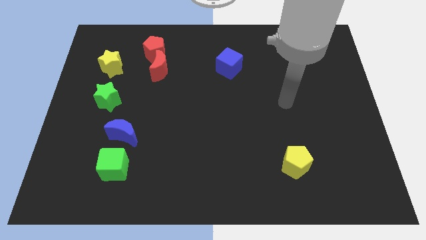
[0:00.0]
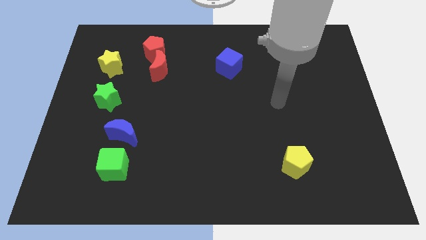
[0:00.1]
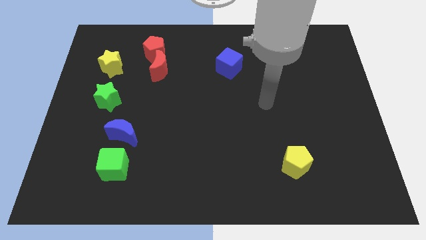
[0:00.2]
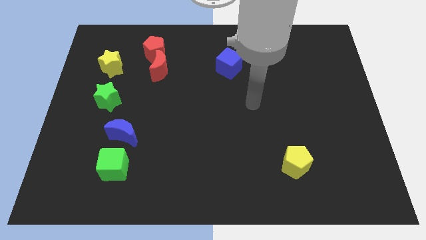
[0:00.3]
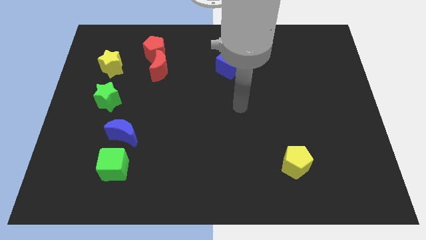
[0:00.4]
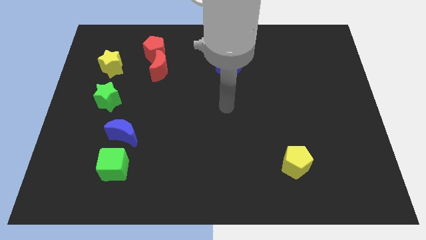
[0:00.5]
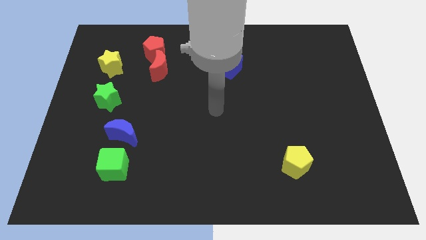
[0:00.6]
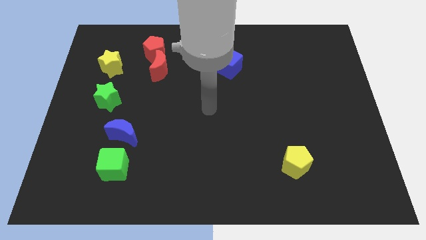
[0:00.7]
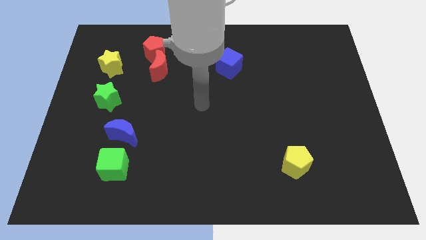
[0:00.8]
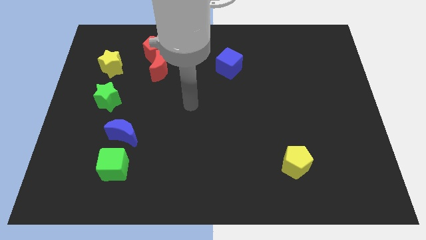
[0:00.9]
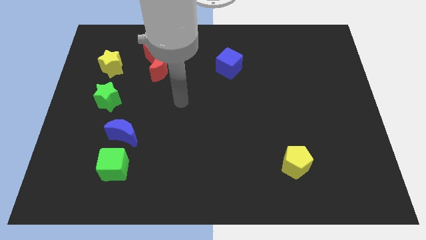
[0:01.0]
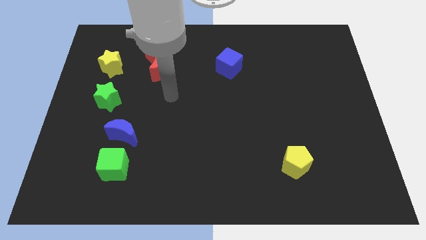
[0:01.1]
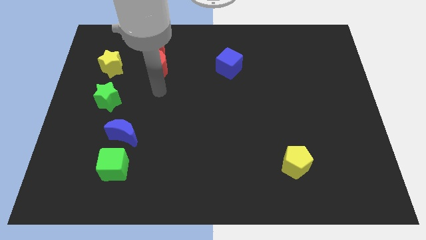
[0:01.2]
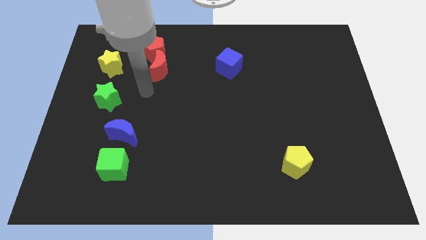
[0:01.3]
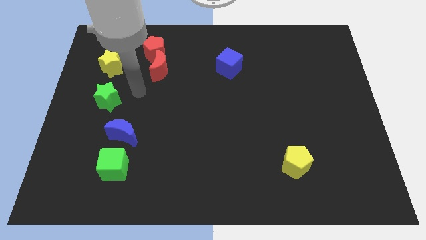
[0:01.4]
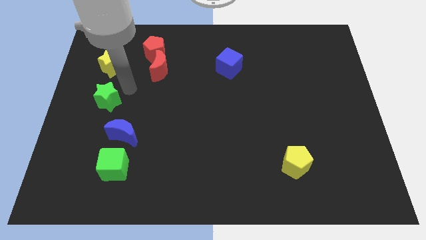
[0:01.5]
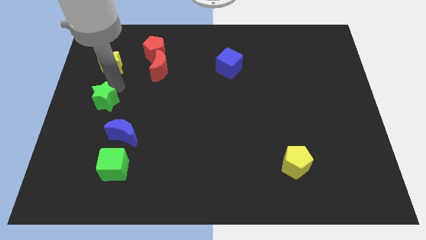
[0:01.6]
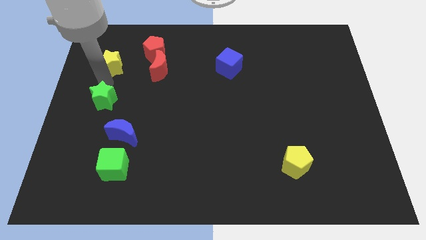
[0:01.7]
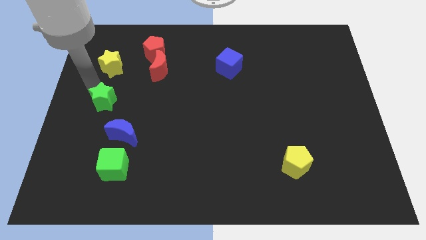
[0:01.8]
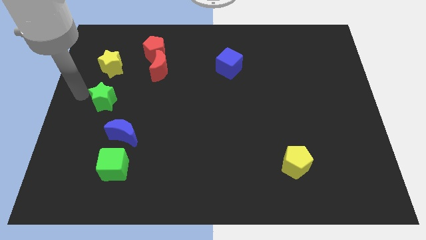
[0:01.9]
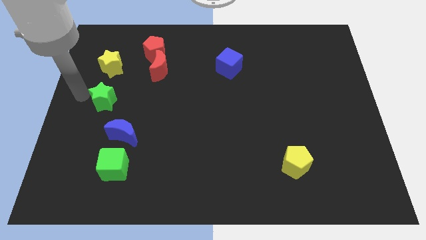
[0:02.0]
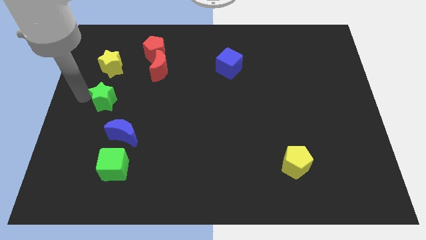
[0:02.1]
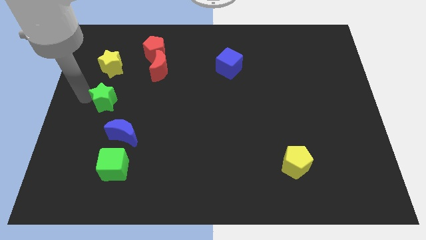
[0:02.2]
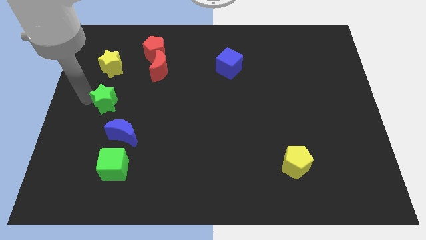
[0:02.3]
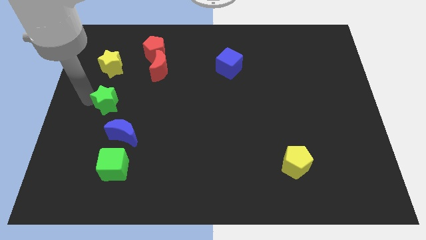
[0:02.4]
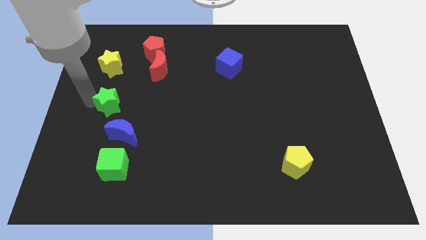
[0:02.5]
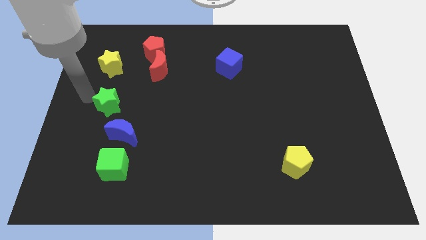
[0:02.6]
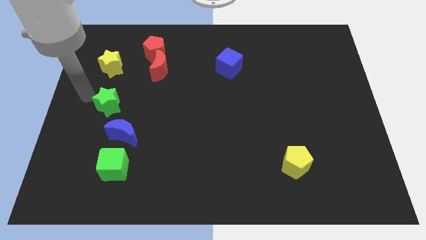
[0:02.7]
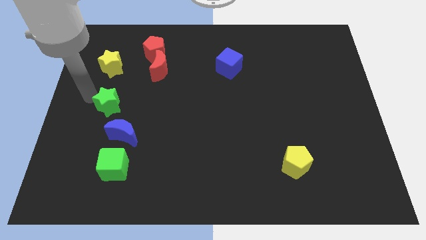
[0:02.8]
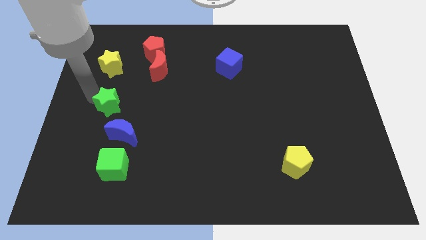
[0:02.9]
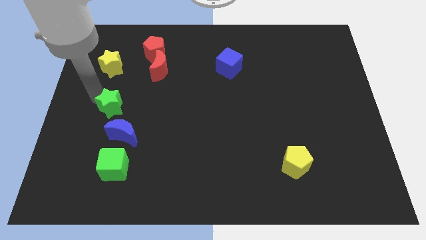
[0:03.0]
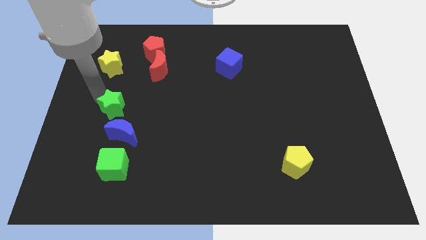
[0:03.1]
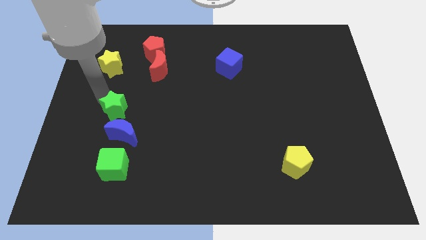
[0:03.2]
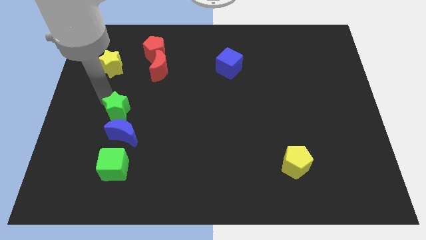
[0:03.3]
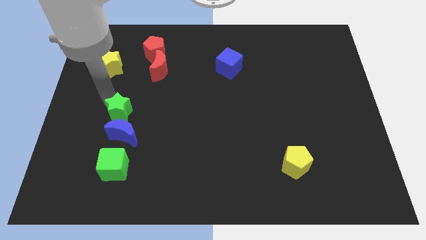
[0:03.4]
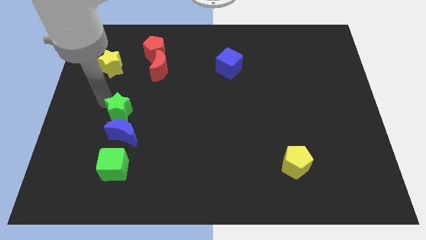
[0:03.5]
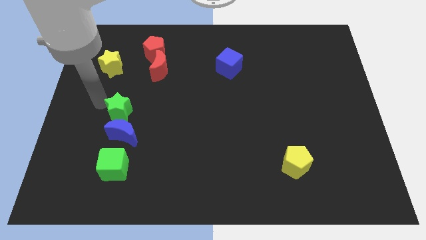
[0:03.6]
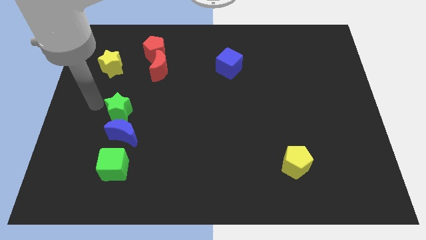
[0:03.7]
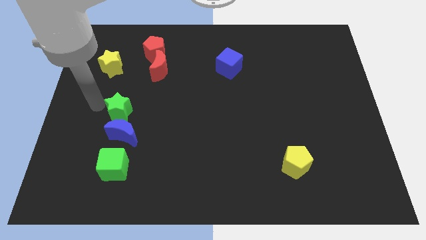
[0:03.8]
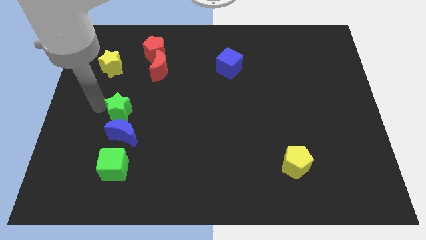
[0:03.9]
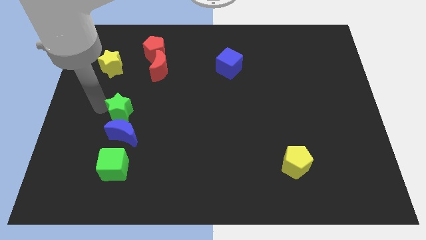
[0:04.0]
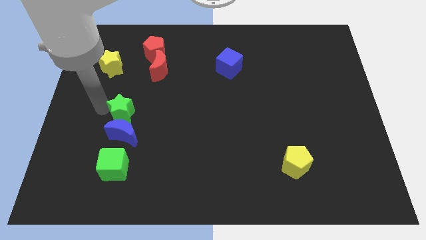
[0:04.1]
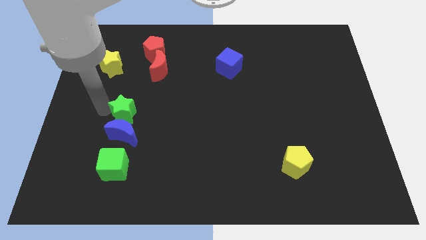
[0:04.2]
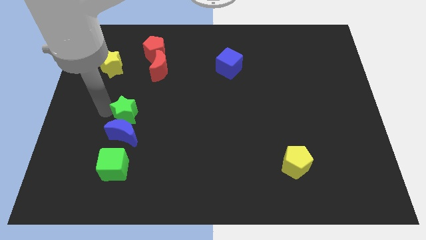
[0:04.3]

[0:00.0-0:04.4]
slightly slide the green star down and right

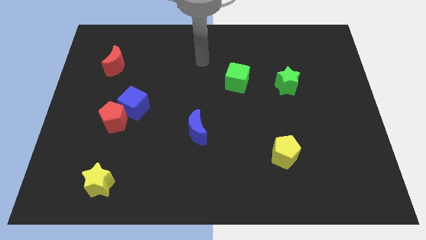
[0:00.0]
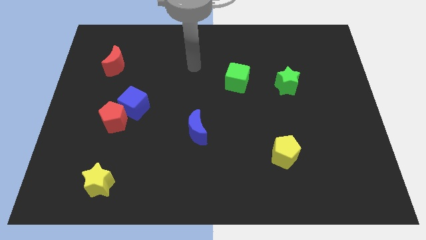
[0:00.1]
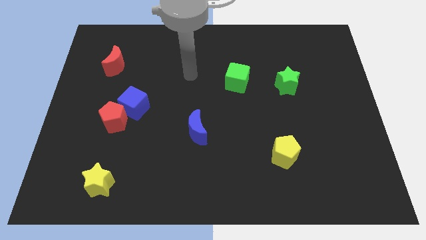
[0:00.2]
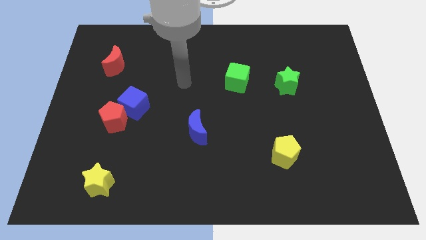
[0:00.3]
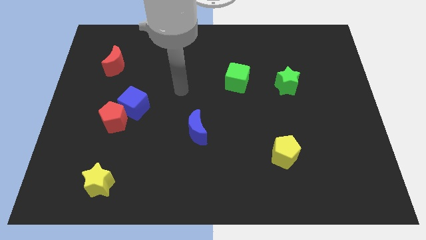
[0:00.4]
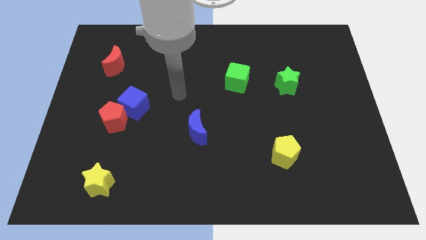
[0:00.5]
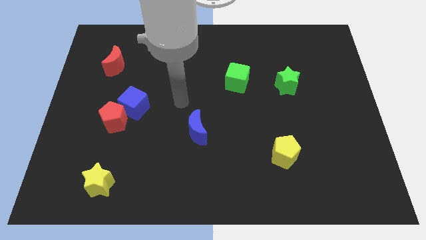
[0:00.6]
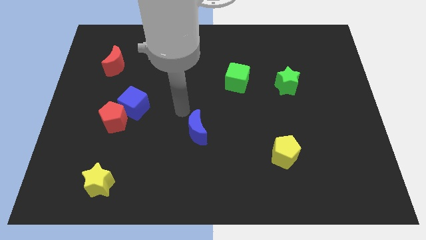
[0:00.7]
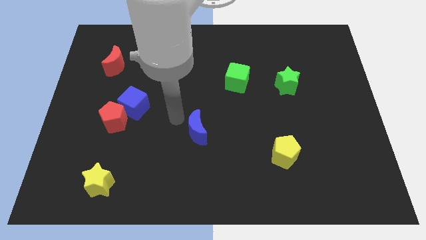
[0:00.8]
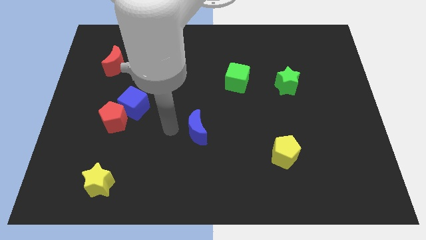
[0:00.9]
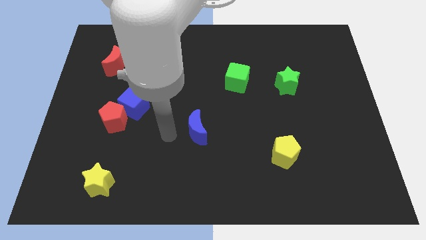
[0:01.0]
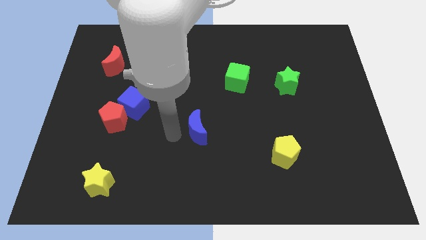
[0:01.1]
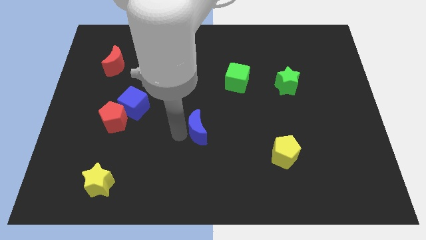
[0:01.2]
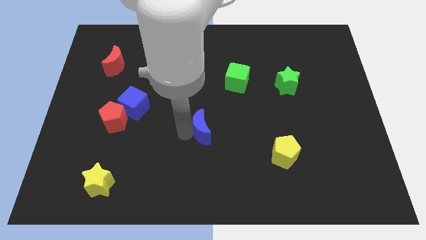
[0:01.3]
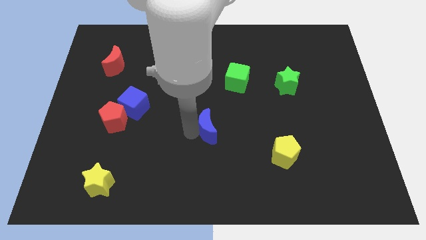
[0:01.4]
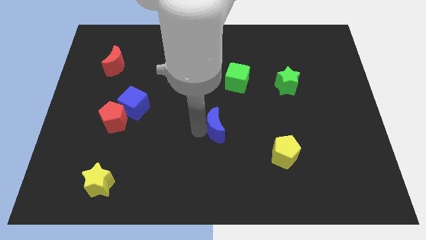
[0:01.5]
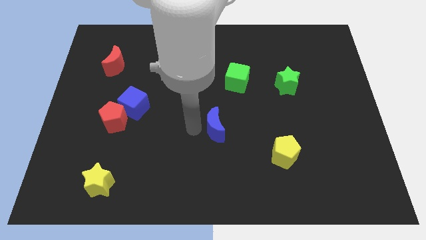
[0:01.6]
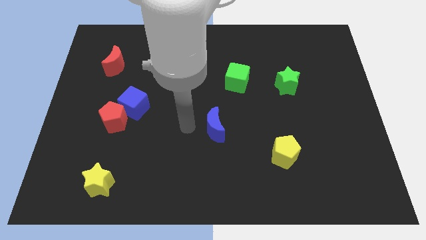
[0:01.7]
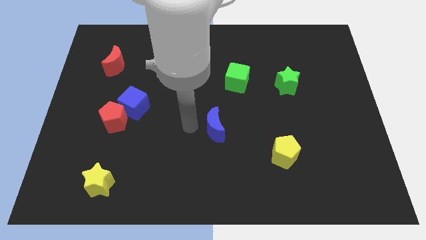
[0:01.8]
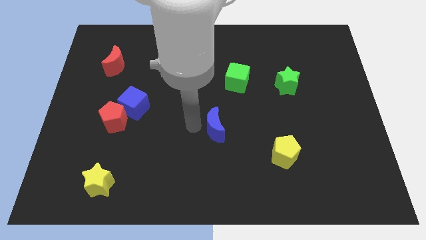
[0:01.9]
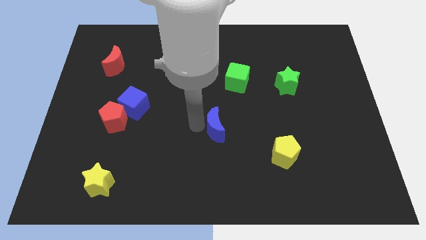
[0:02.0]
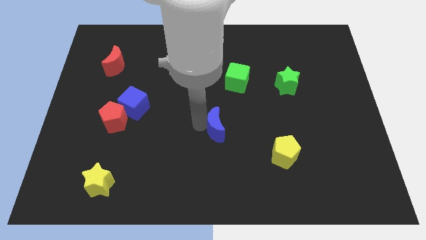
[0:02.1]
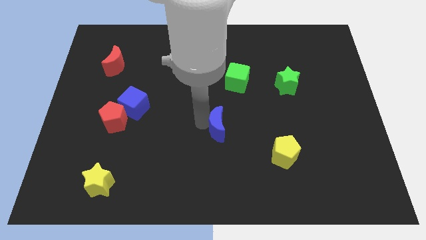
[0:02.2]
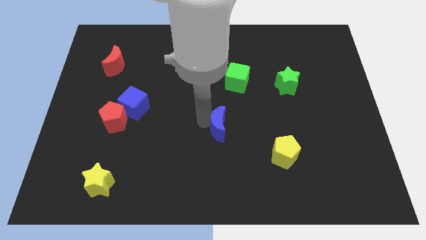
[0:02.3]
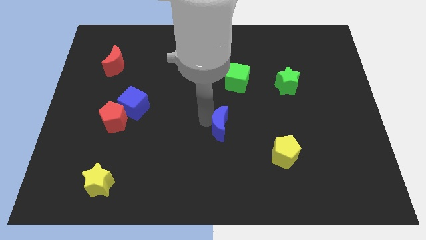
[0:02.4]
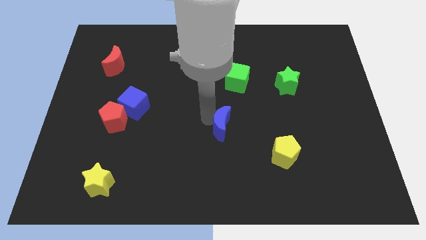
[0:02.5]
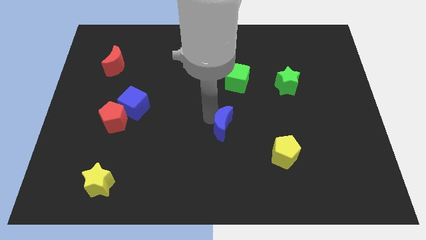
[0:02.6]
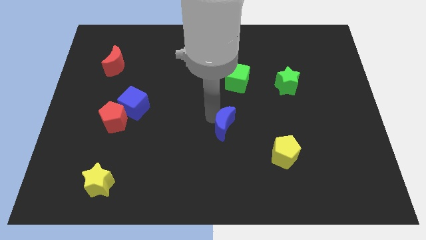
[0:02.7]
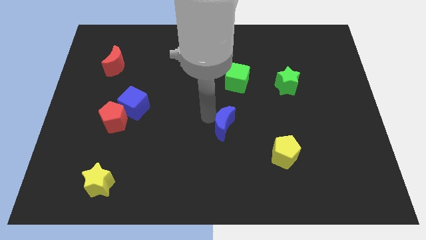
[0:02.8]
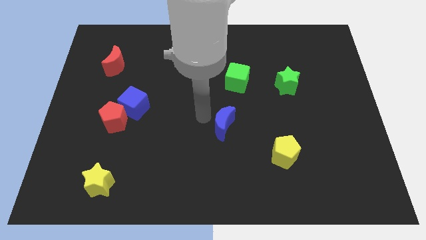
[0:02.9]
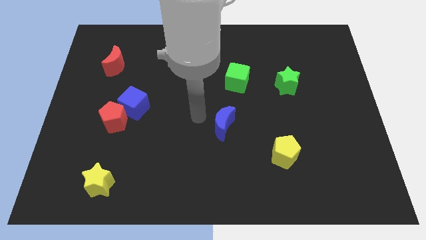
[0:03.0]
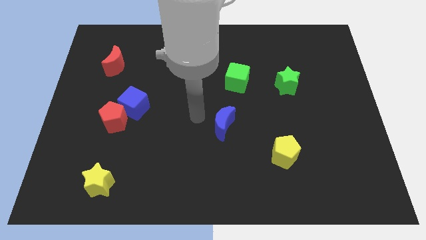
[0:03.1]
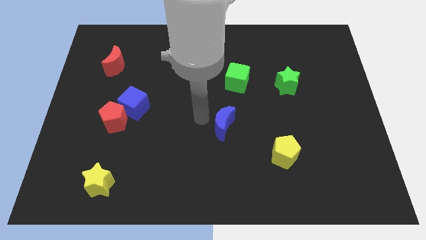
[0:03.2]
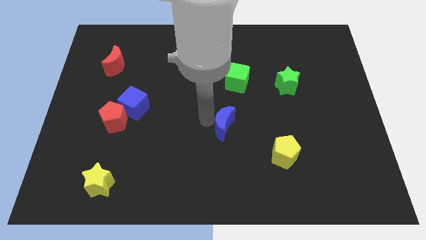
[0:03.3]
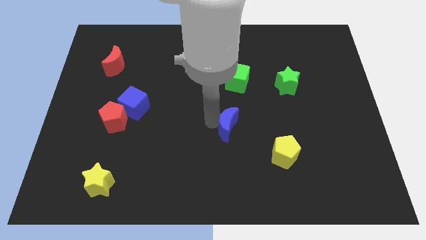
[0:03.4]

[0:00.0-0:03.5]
slide the blue moon somewhat to the right
